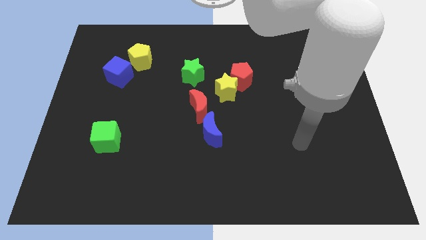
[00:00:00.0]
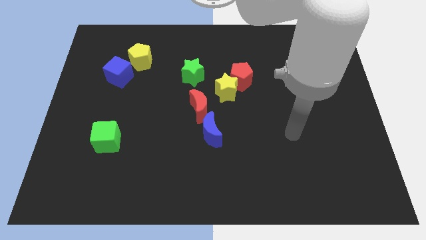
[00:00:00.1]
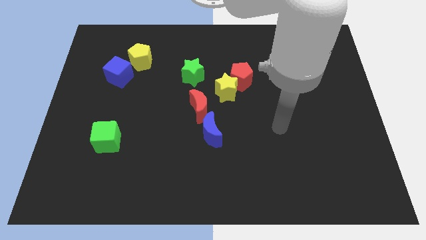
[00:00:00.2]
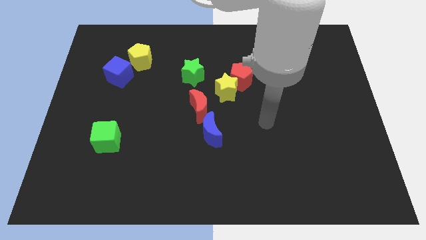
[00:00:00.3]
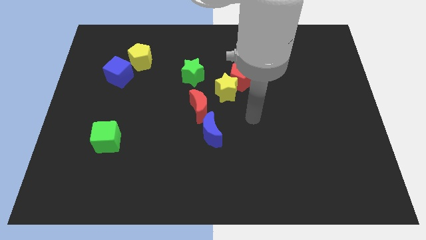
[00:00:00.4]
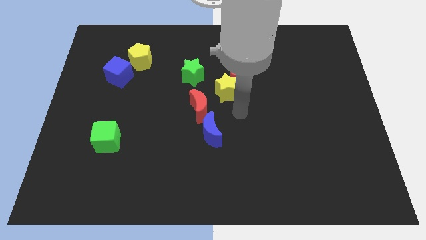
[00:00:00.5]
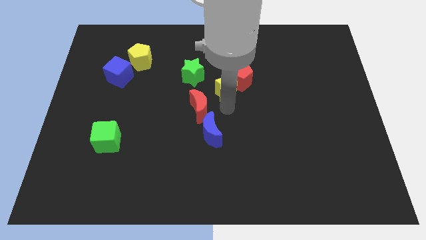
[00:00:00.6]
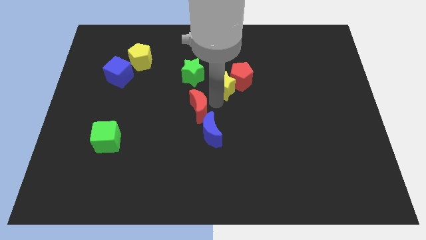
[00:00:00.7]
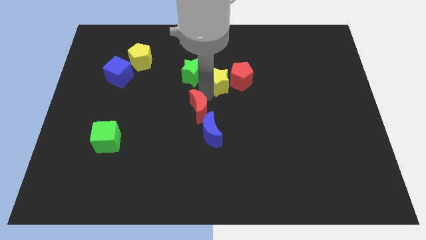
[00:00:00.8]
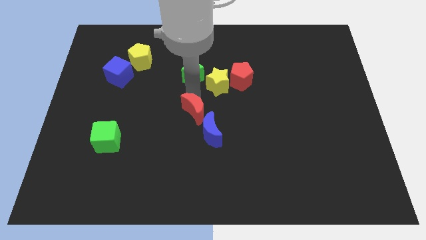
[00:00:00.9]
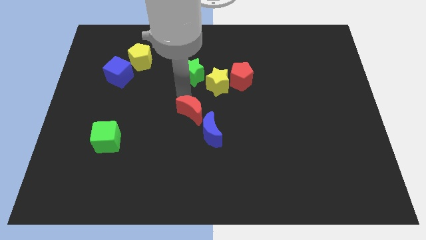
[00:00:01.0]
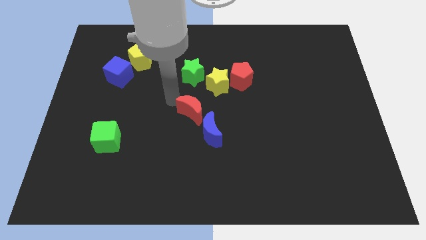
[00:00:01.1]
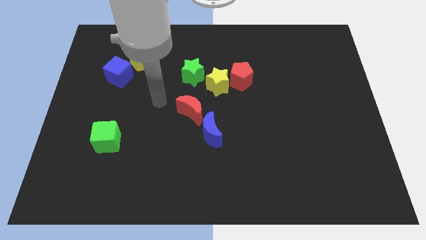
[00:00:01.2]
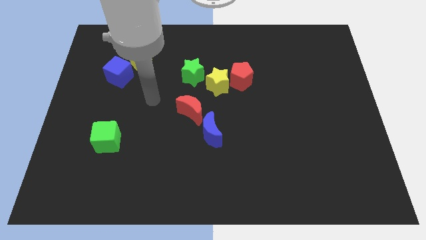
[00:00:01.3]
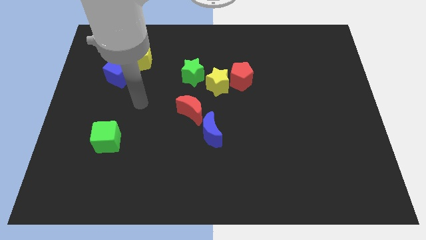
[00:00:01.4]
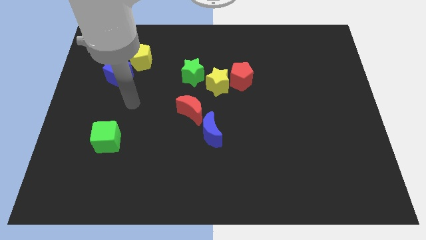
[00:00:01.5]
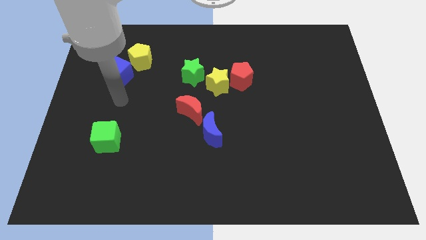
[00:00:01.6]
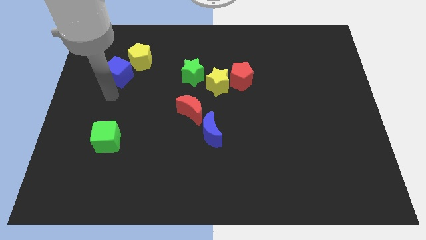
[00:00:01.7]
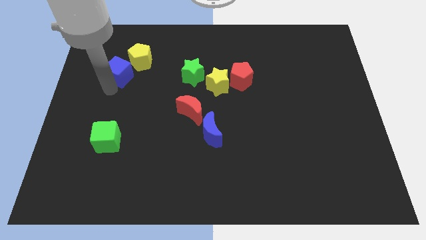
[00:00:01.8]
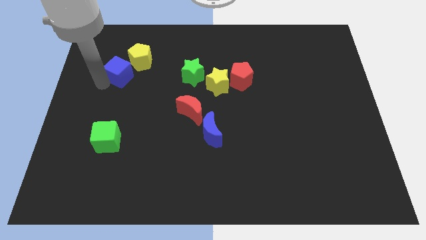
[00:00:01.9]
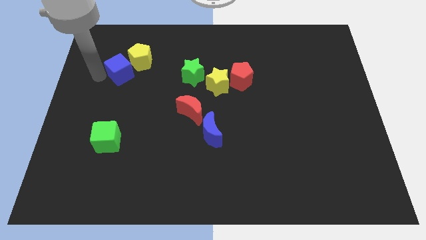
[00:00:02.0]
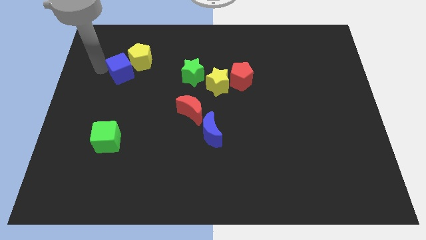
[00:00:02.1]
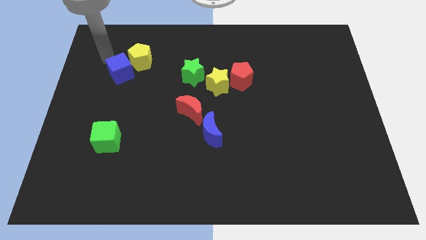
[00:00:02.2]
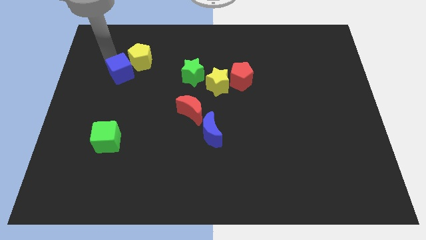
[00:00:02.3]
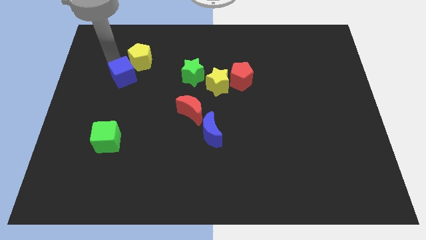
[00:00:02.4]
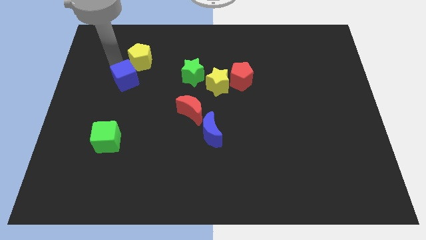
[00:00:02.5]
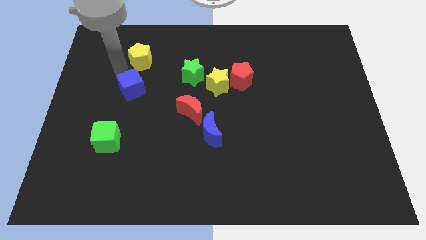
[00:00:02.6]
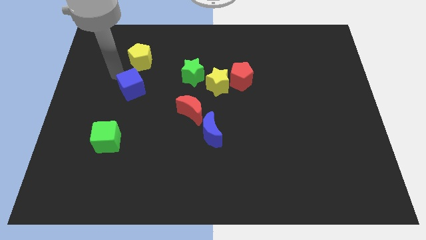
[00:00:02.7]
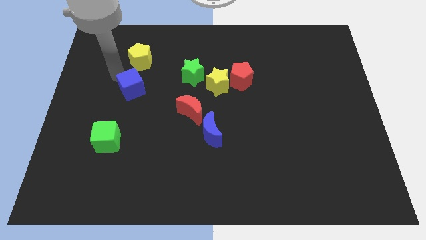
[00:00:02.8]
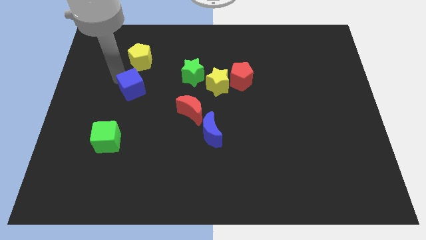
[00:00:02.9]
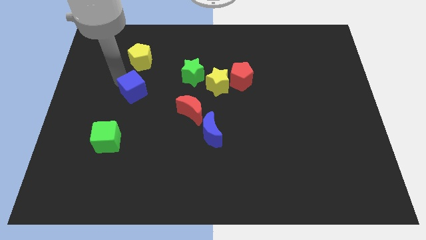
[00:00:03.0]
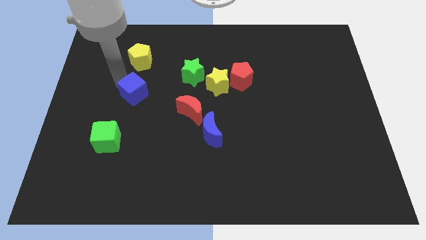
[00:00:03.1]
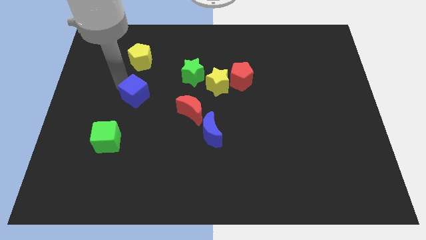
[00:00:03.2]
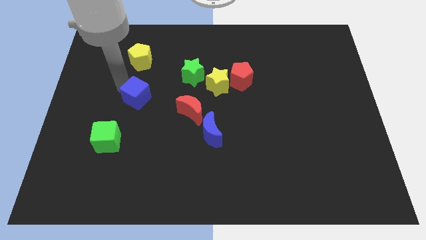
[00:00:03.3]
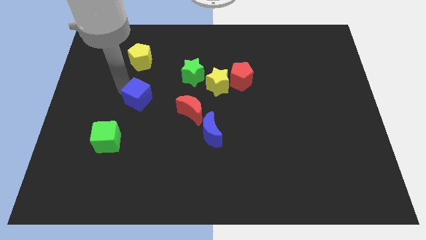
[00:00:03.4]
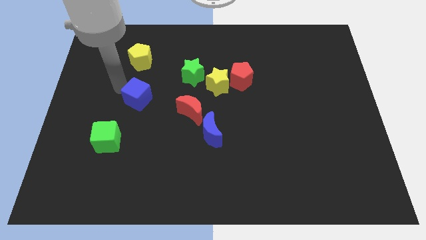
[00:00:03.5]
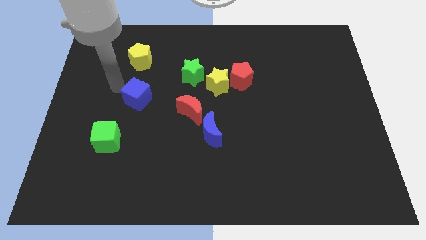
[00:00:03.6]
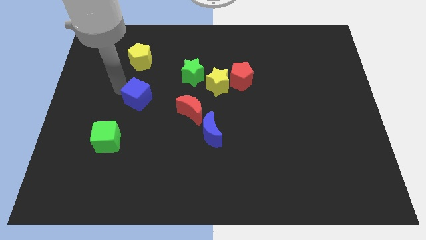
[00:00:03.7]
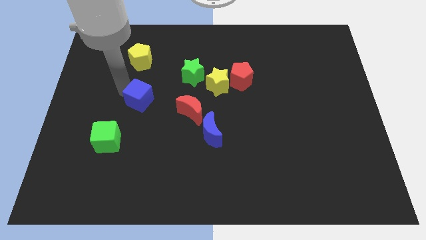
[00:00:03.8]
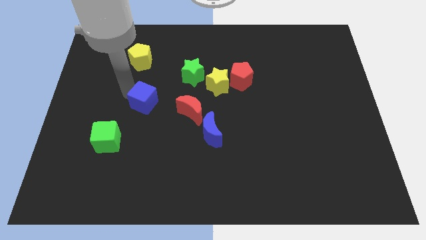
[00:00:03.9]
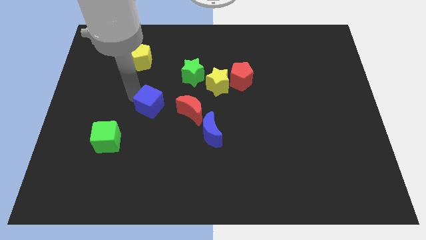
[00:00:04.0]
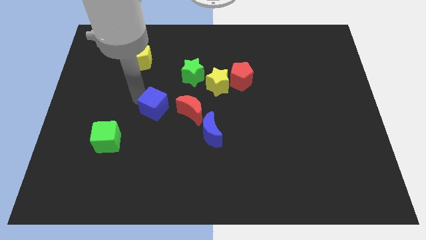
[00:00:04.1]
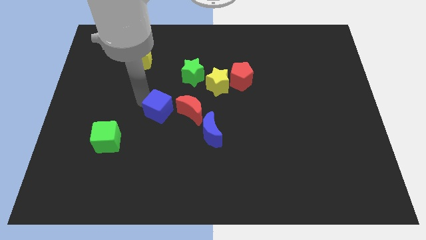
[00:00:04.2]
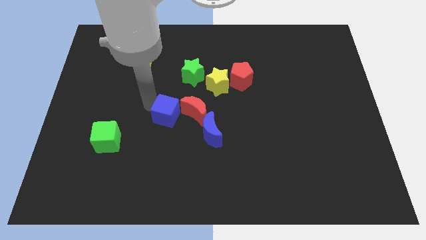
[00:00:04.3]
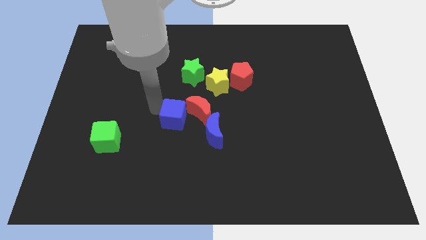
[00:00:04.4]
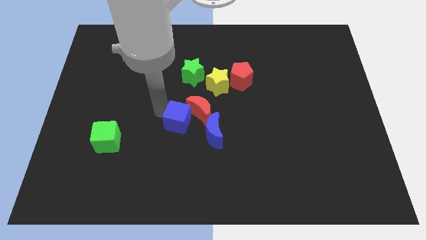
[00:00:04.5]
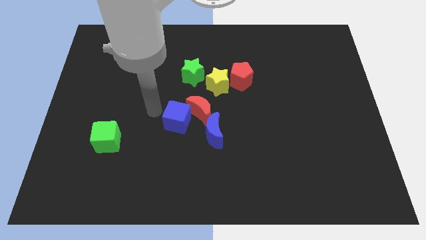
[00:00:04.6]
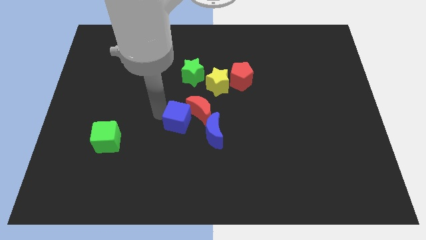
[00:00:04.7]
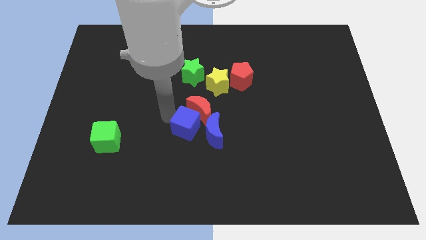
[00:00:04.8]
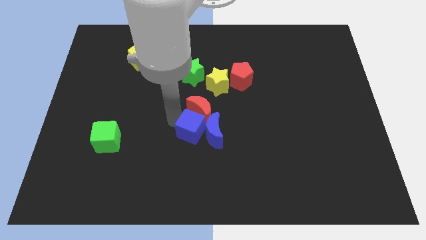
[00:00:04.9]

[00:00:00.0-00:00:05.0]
put the blue cube next to the blue moon

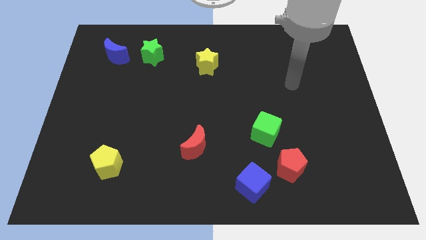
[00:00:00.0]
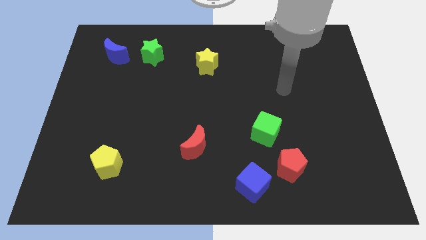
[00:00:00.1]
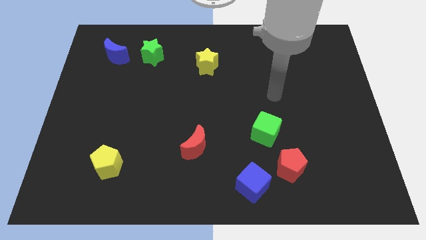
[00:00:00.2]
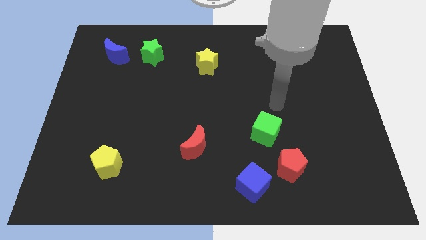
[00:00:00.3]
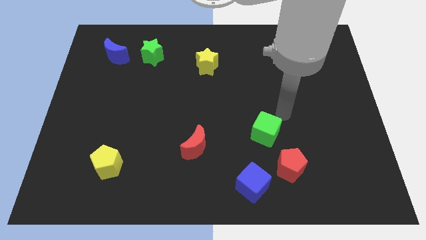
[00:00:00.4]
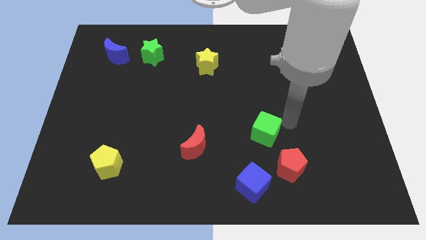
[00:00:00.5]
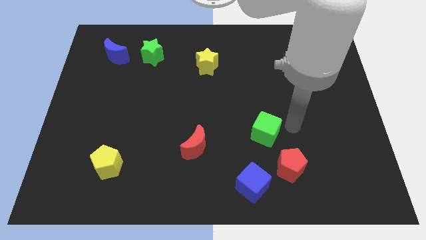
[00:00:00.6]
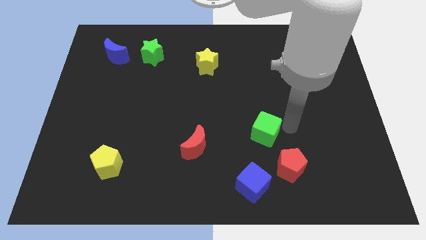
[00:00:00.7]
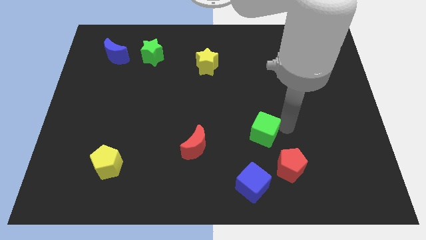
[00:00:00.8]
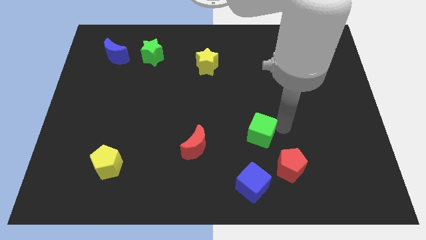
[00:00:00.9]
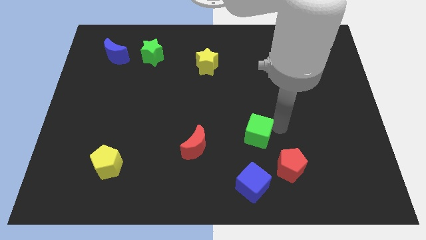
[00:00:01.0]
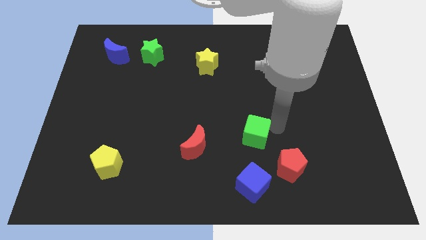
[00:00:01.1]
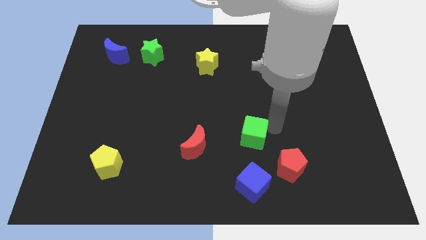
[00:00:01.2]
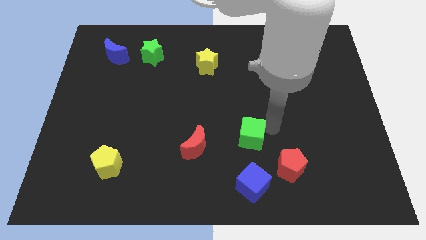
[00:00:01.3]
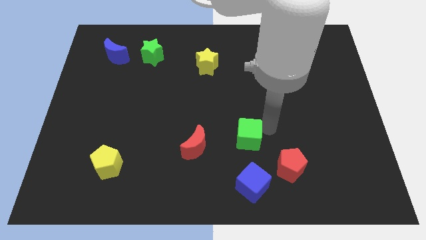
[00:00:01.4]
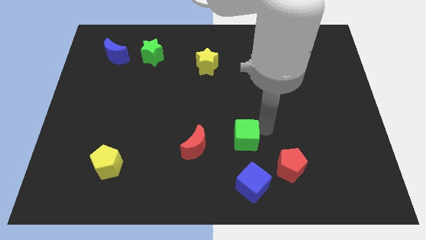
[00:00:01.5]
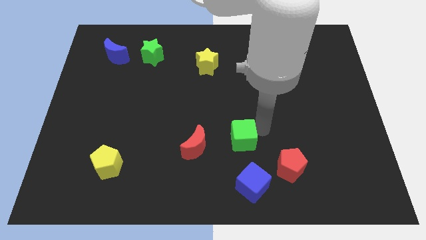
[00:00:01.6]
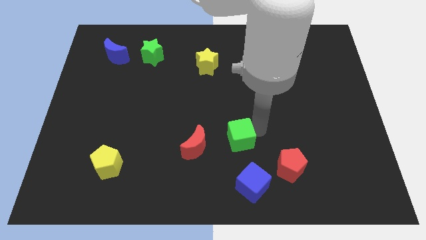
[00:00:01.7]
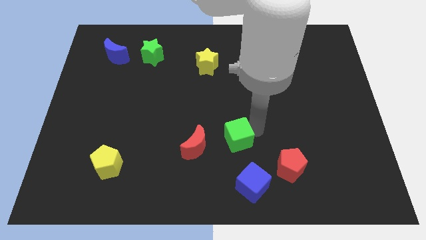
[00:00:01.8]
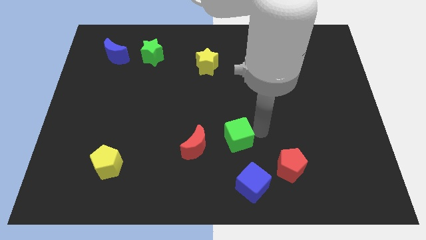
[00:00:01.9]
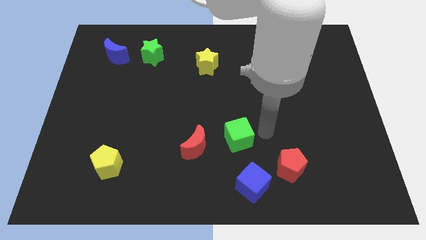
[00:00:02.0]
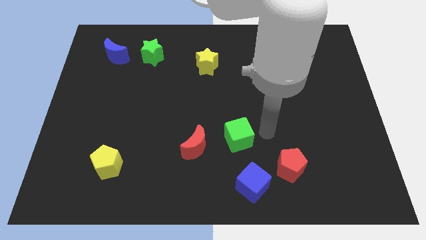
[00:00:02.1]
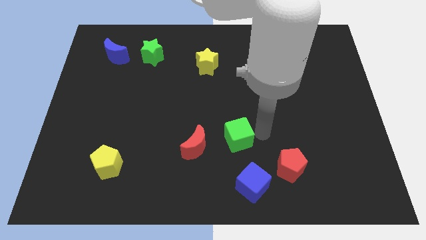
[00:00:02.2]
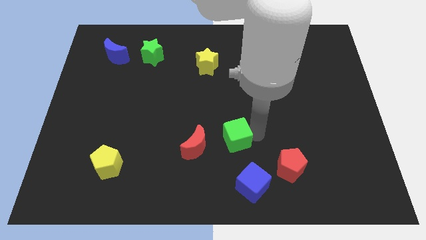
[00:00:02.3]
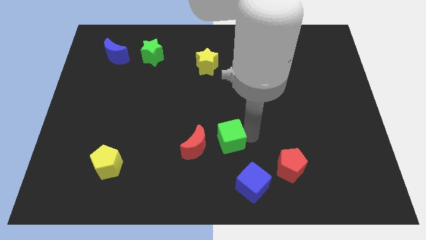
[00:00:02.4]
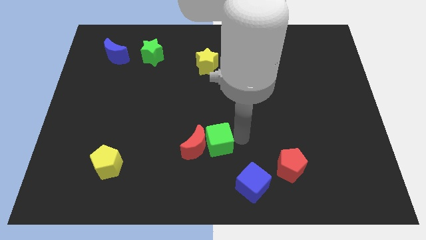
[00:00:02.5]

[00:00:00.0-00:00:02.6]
put the green cube towards the red moon
